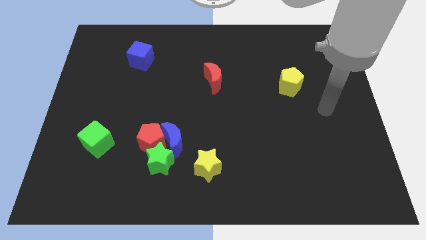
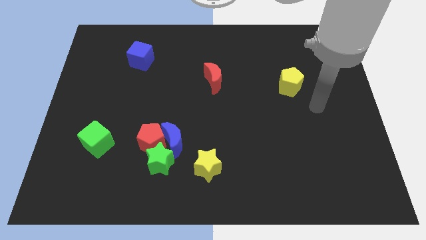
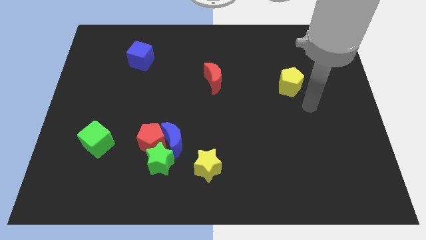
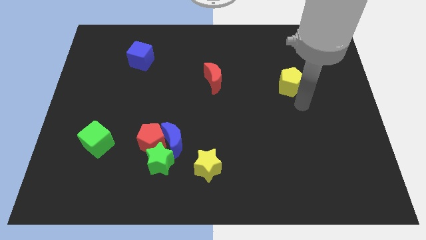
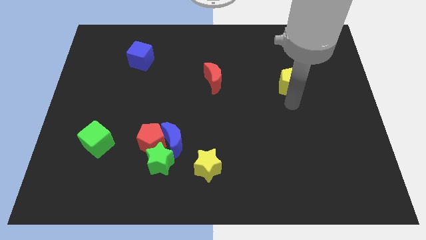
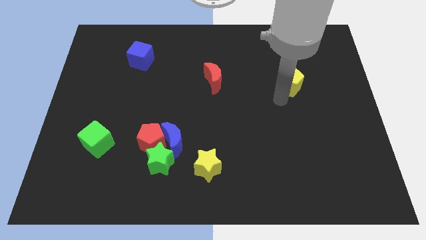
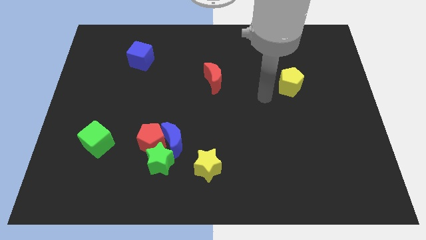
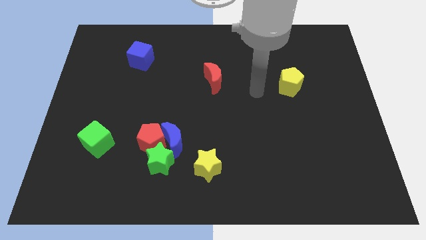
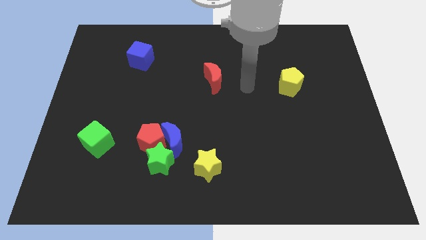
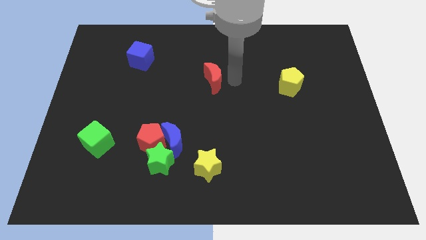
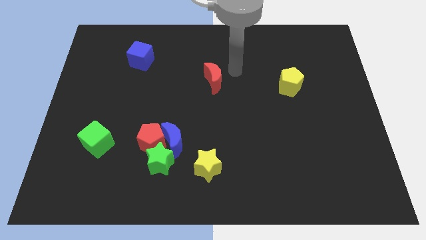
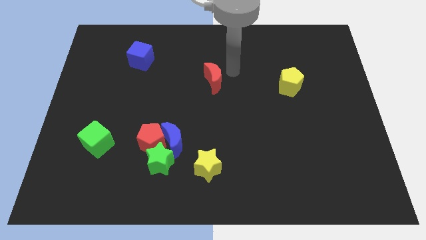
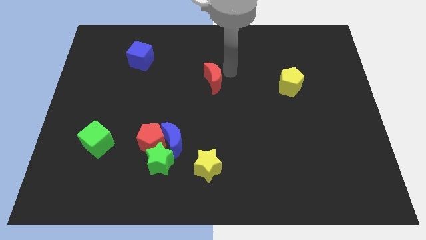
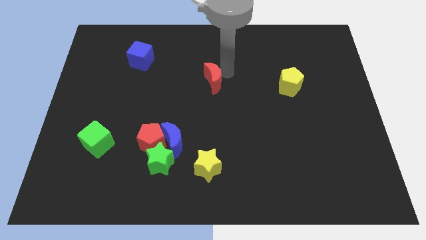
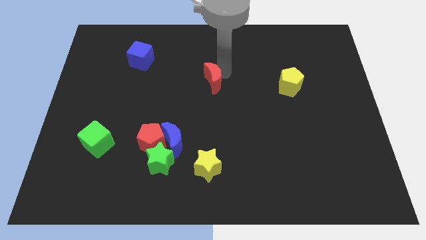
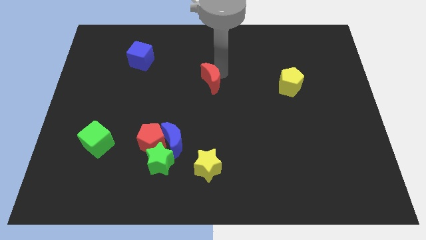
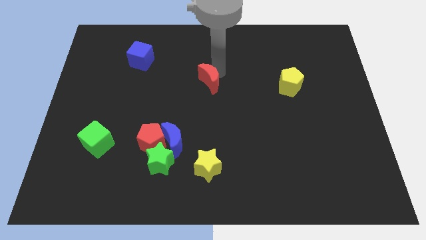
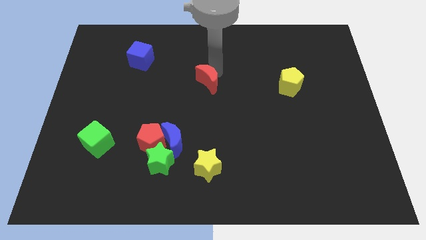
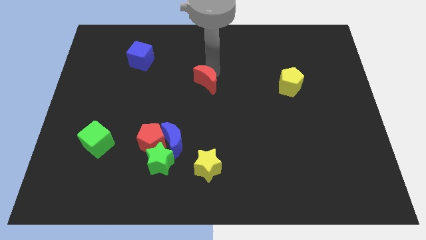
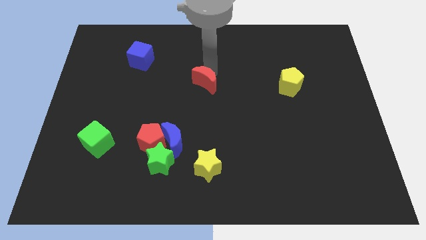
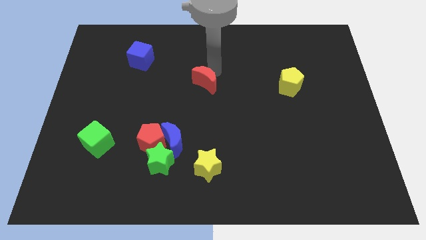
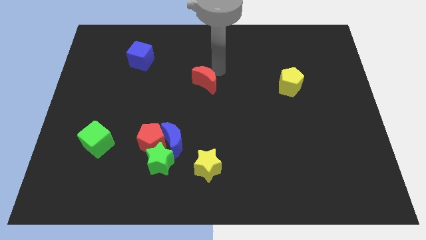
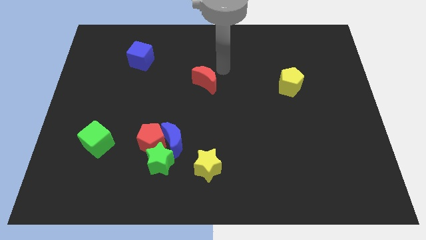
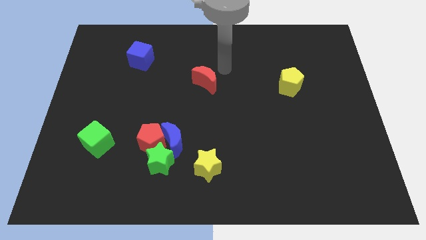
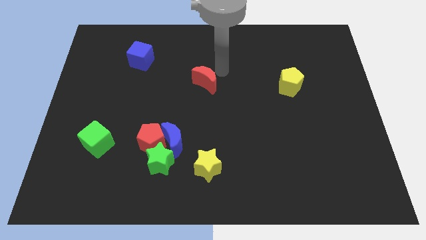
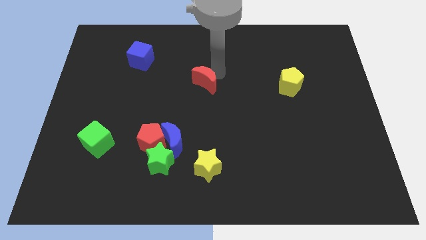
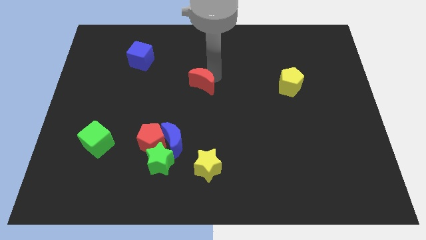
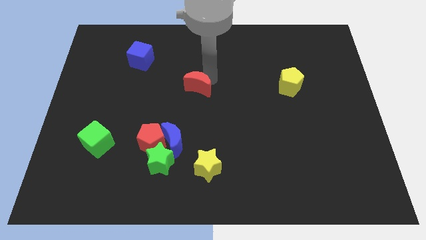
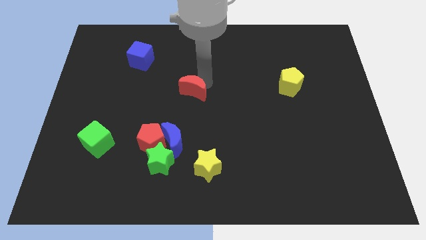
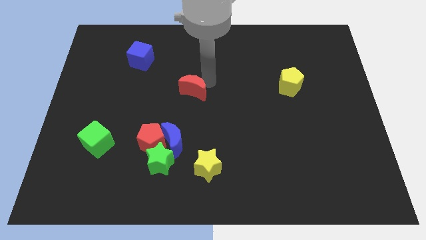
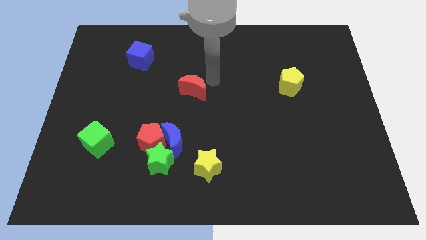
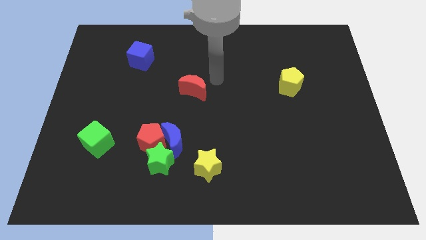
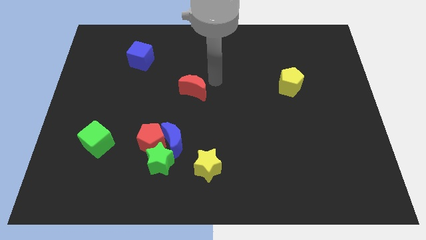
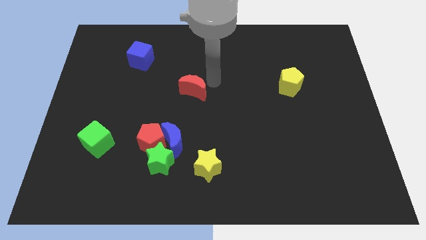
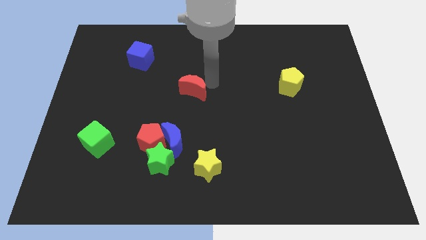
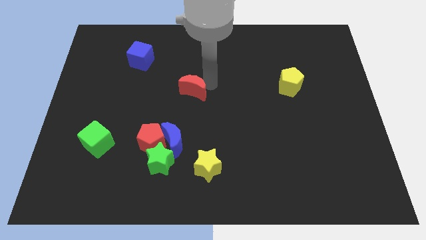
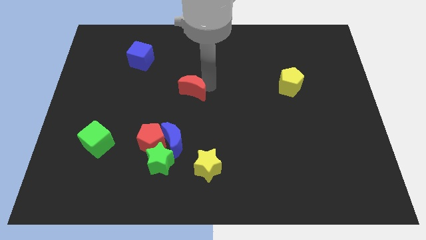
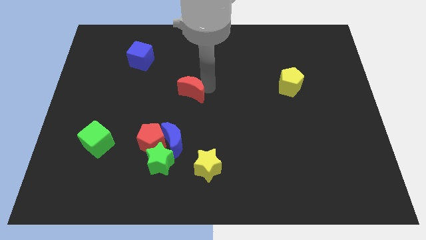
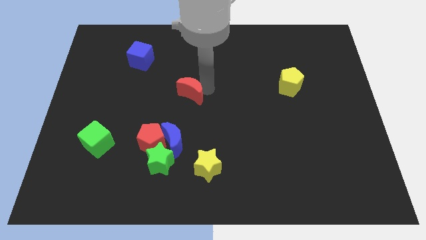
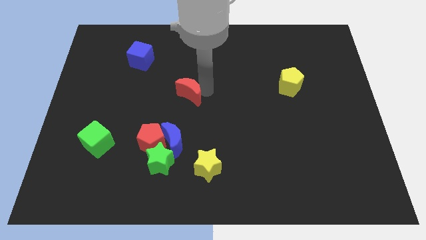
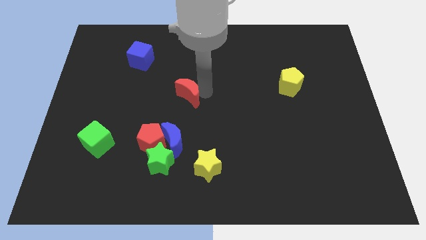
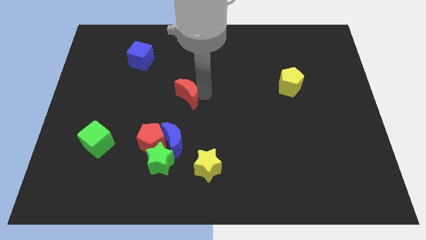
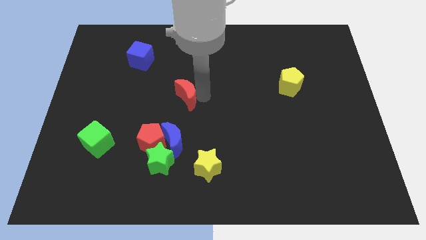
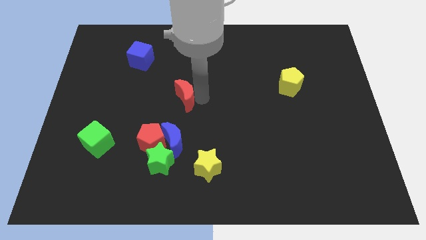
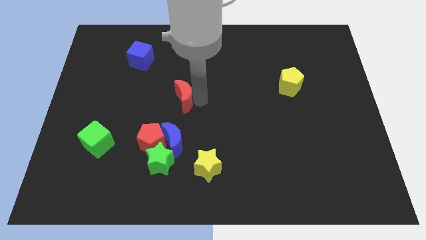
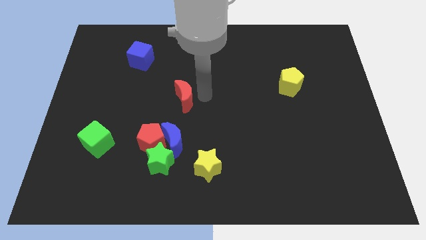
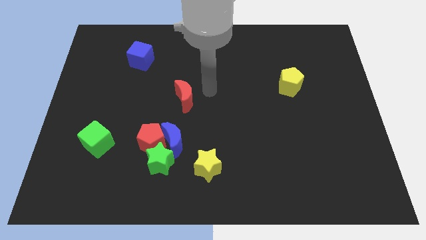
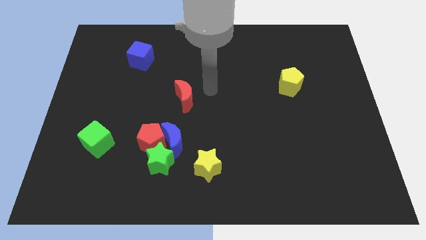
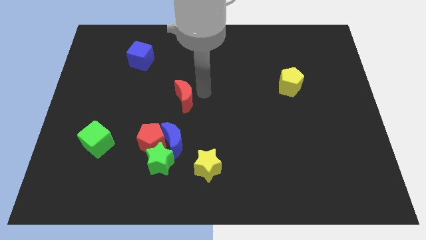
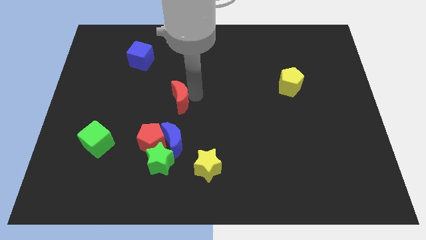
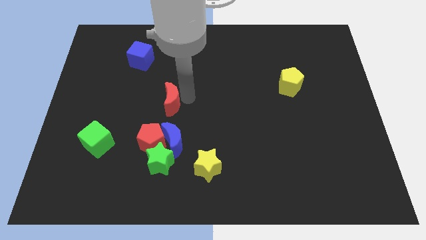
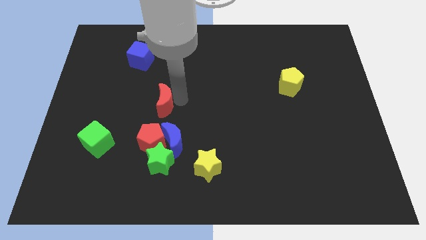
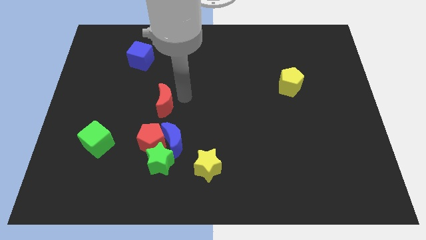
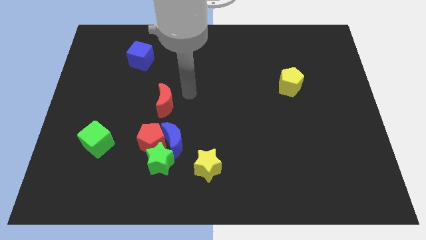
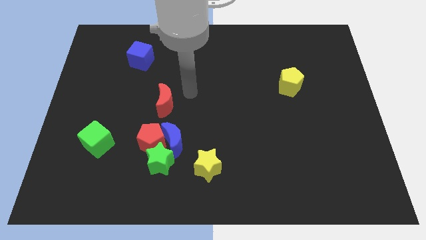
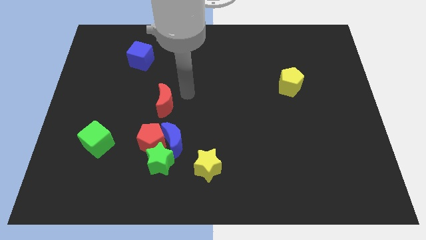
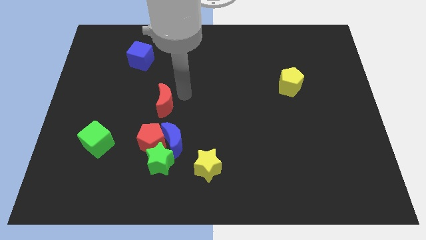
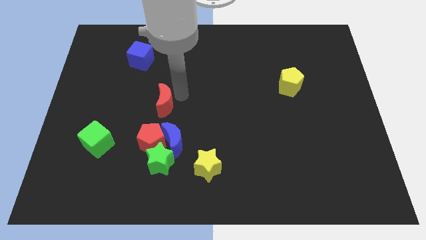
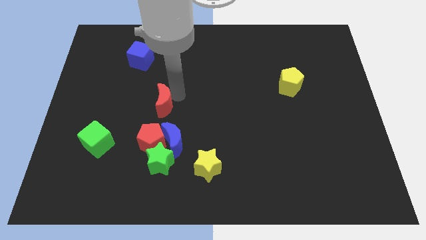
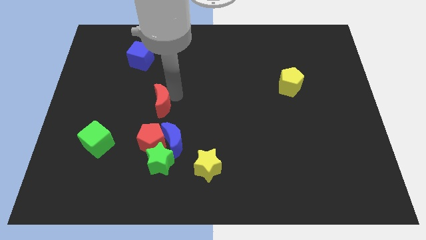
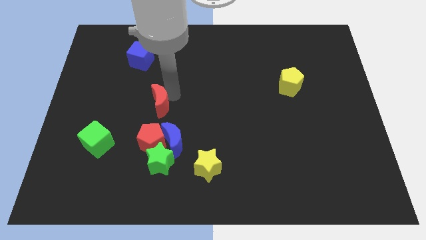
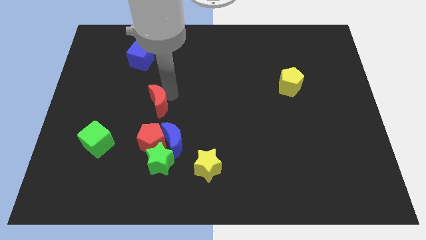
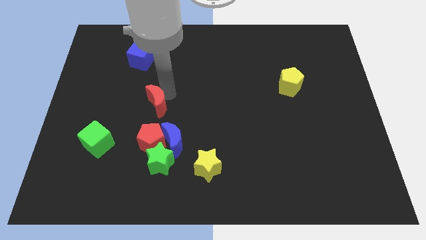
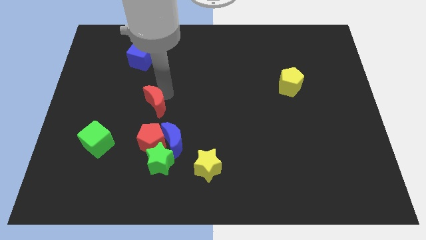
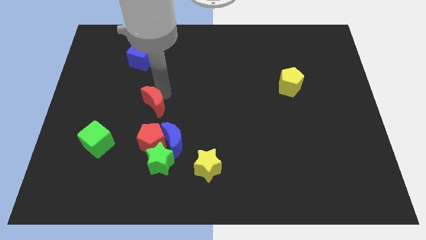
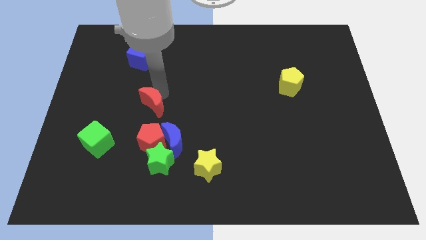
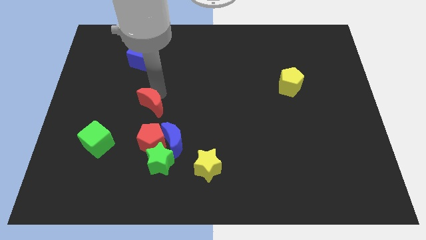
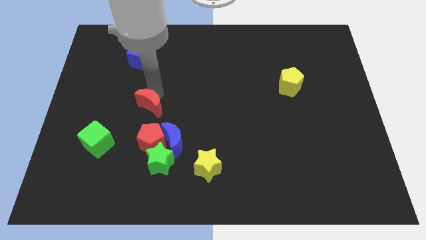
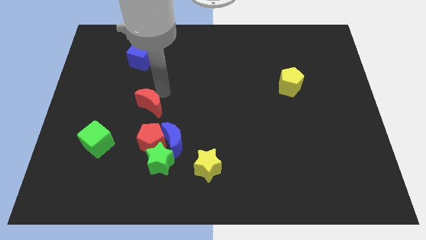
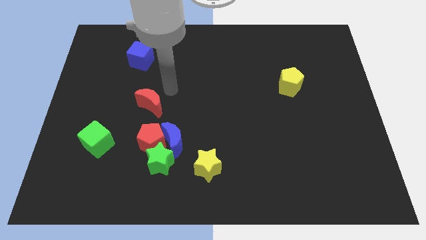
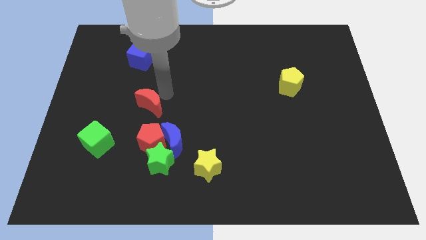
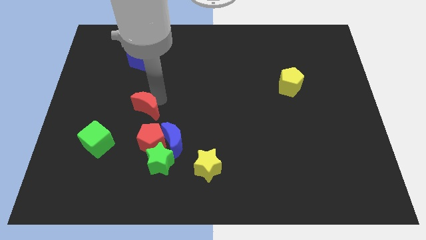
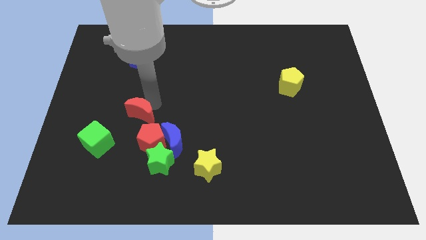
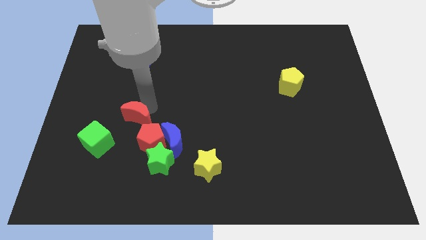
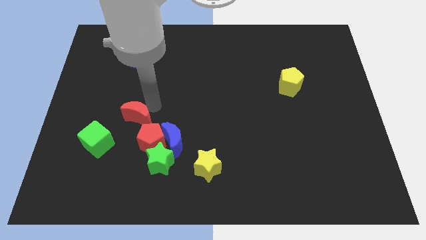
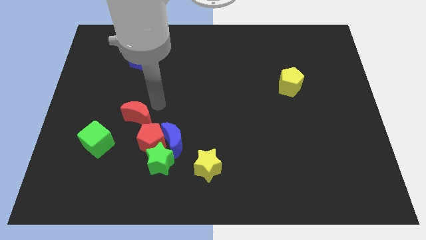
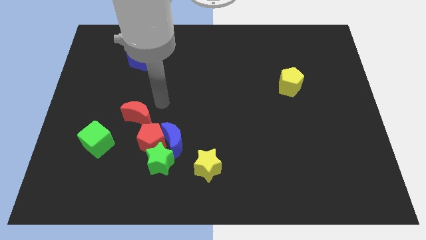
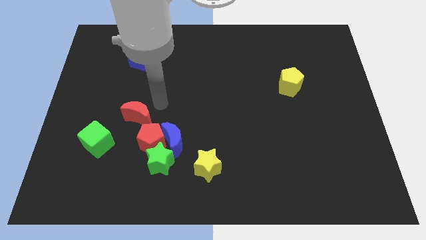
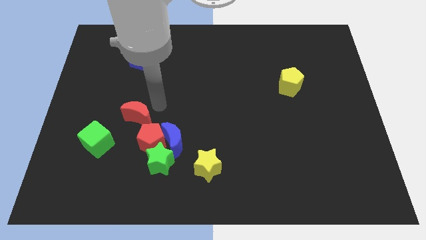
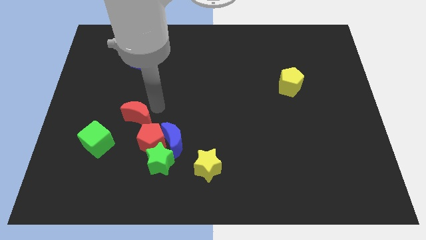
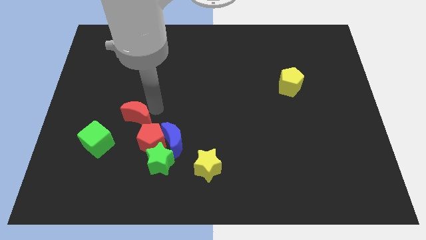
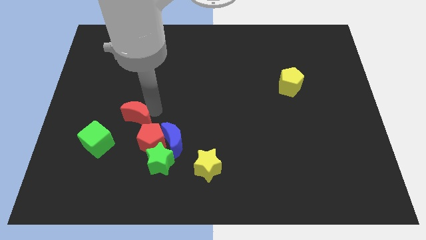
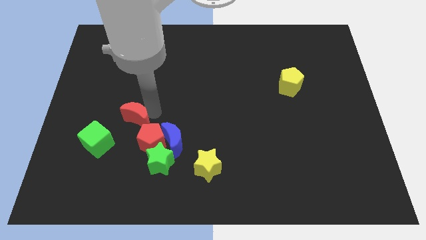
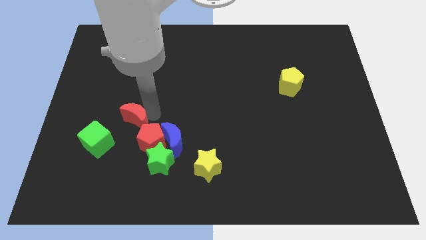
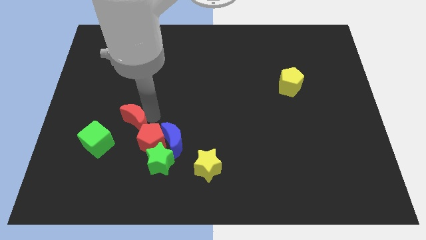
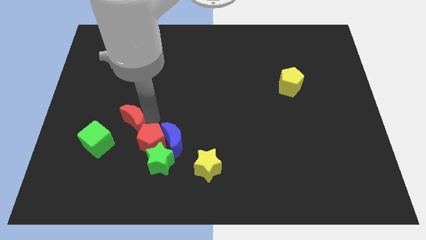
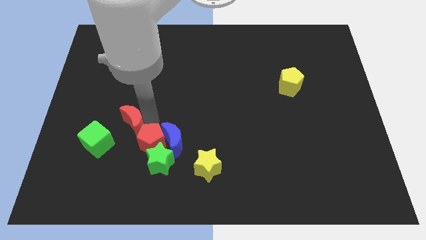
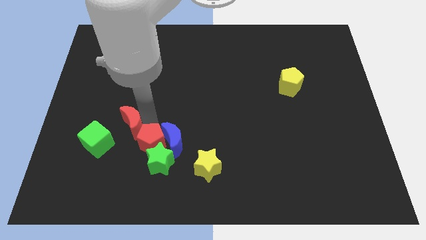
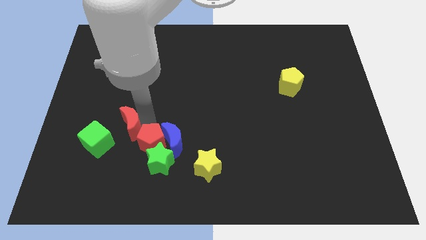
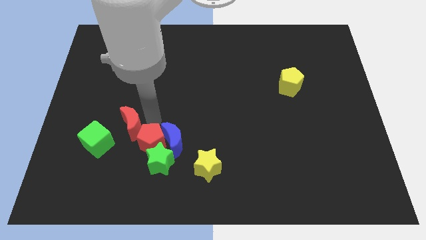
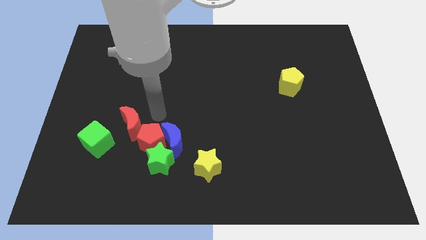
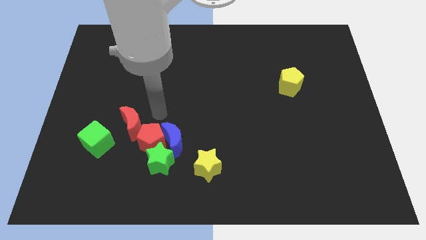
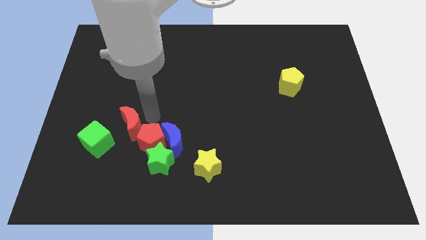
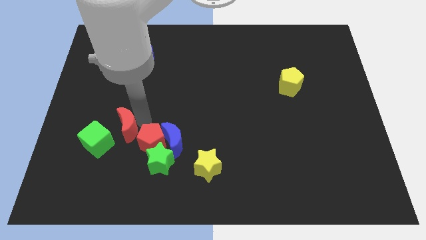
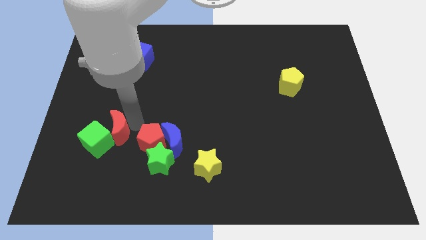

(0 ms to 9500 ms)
push the red moon towards the green cube
